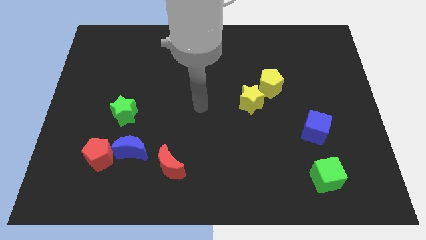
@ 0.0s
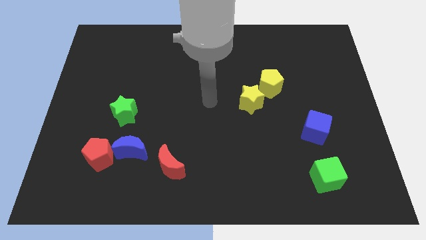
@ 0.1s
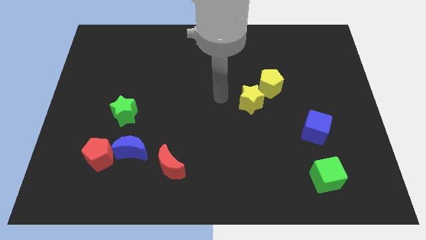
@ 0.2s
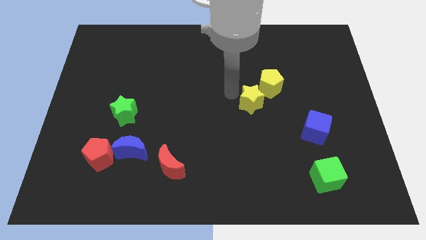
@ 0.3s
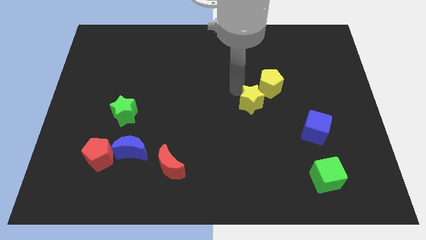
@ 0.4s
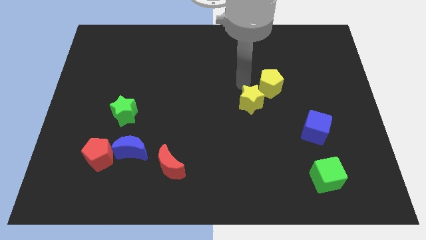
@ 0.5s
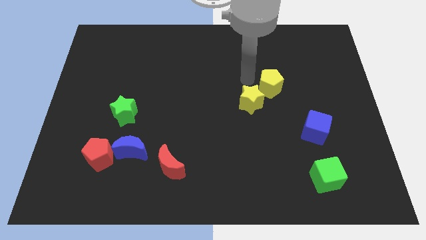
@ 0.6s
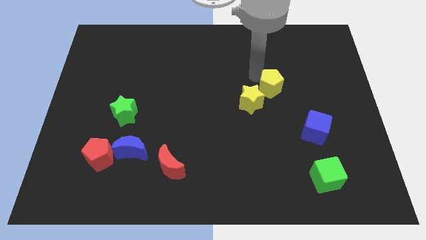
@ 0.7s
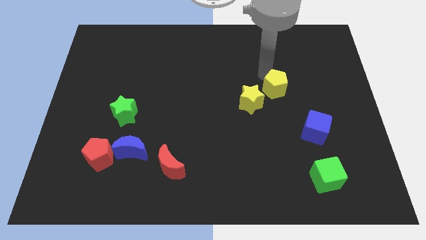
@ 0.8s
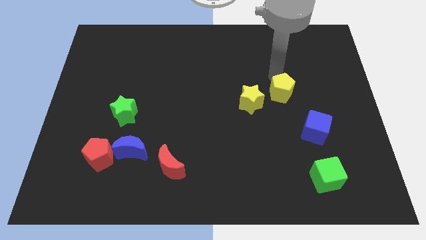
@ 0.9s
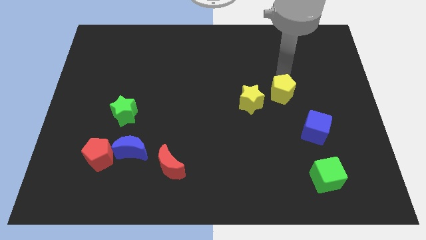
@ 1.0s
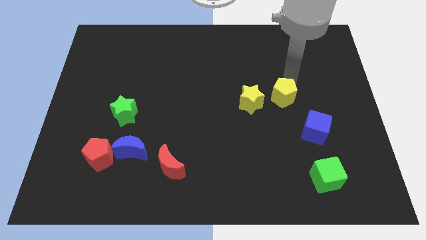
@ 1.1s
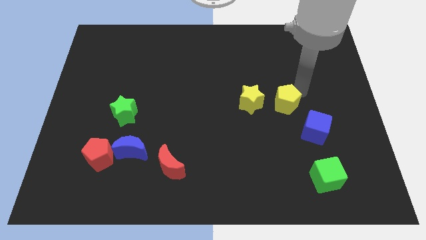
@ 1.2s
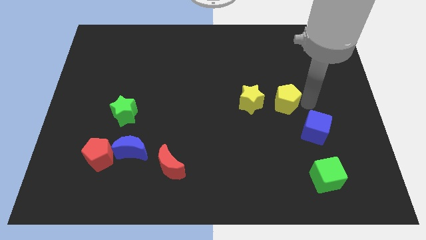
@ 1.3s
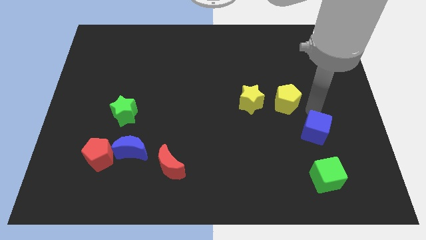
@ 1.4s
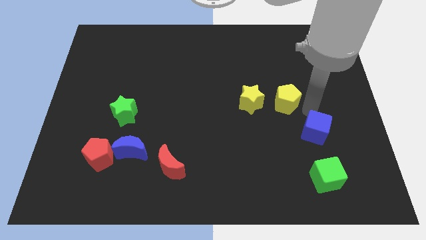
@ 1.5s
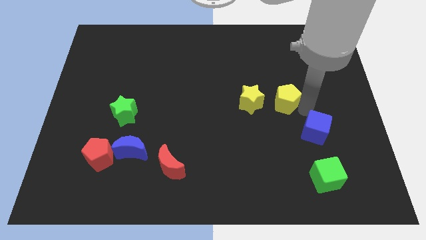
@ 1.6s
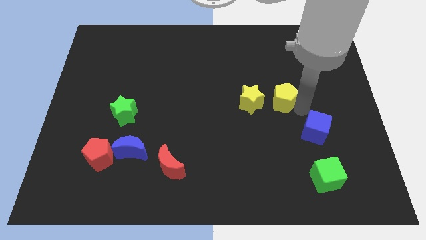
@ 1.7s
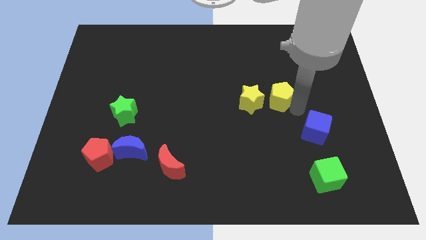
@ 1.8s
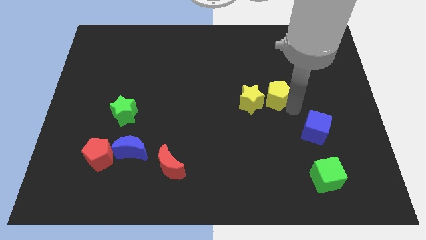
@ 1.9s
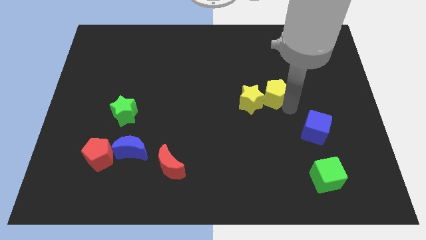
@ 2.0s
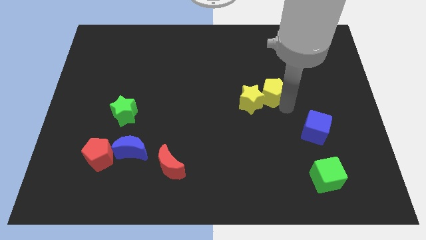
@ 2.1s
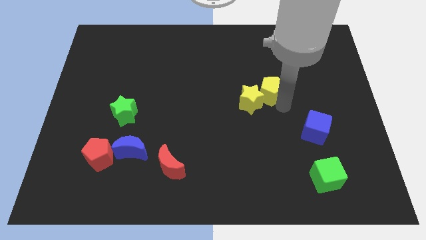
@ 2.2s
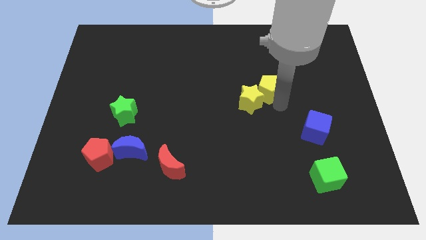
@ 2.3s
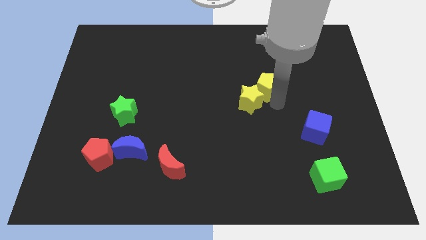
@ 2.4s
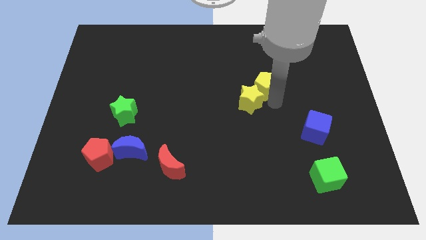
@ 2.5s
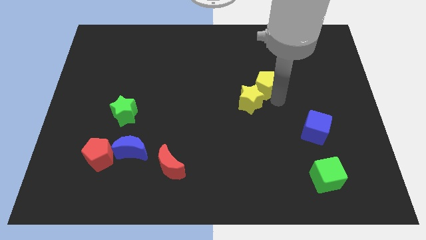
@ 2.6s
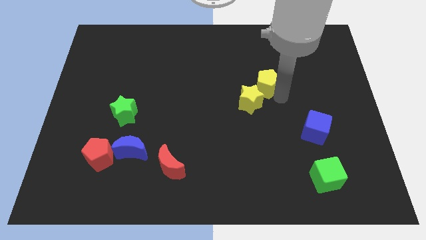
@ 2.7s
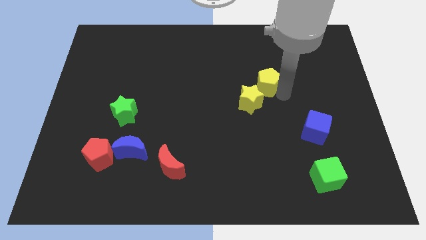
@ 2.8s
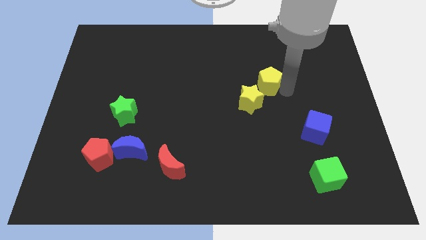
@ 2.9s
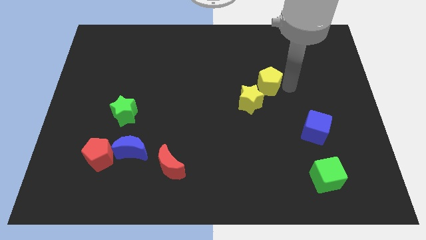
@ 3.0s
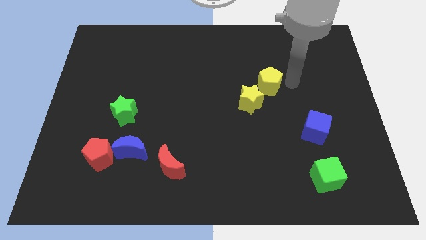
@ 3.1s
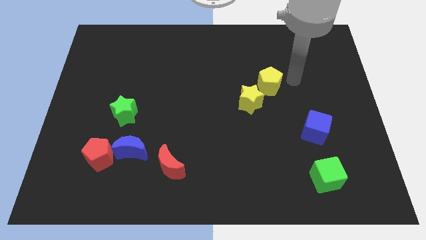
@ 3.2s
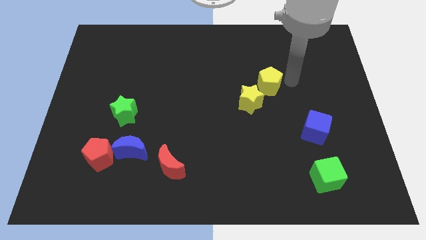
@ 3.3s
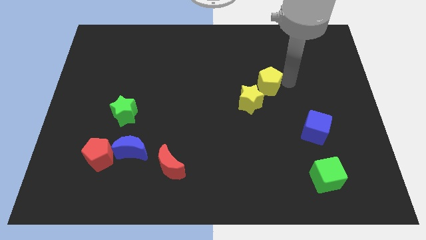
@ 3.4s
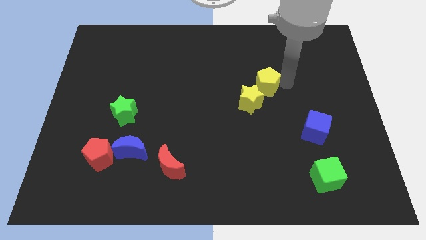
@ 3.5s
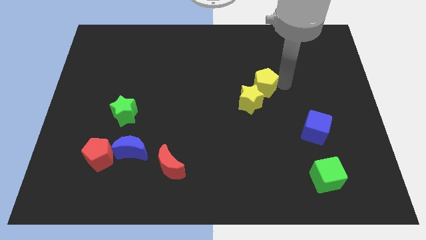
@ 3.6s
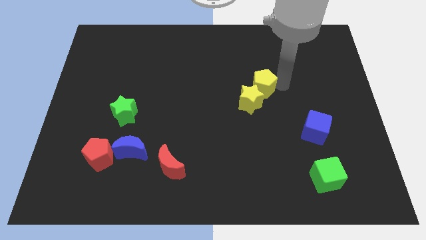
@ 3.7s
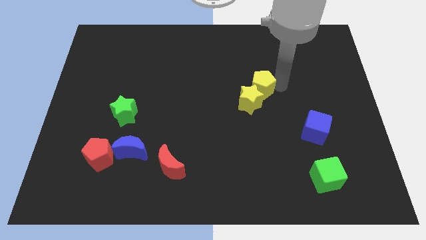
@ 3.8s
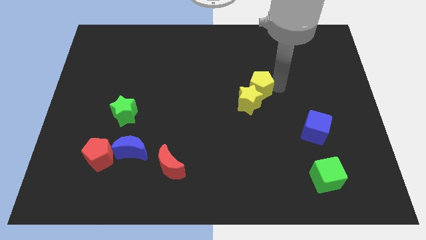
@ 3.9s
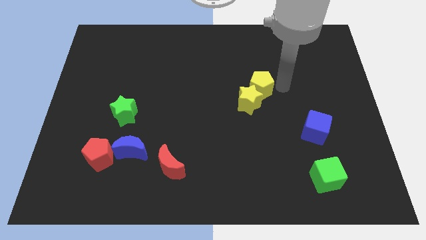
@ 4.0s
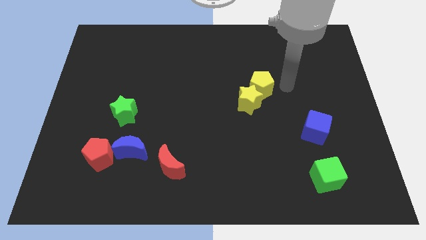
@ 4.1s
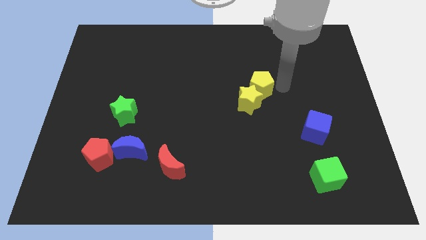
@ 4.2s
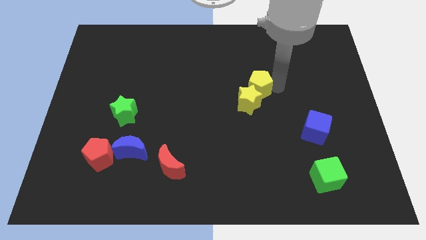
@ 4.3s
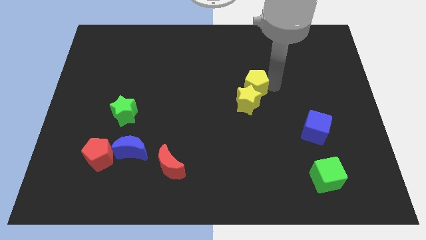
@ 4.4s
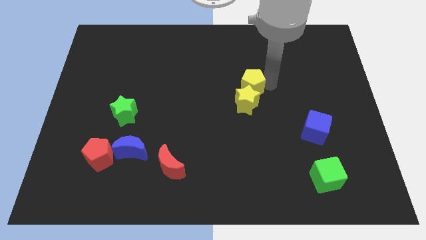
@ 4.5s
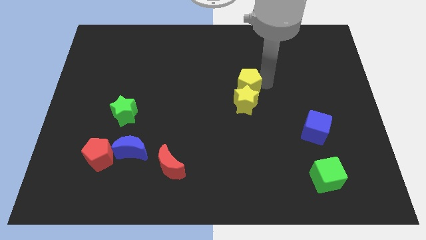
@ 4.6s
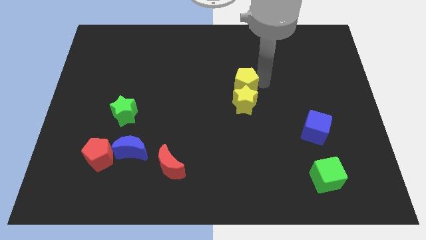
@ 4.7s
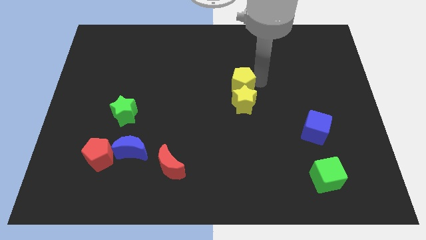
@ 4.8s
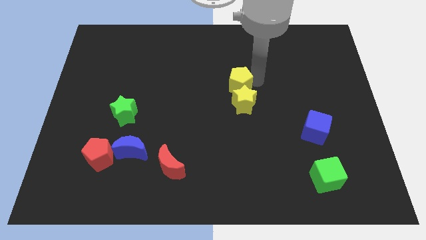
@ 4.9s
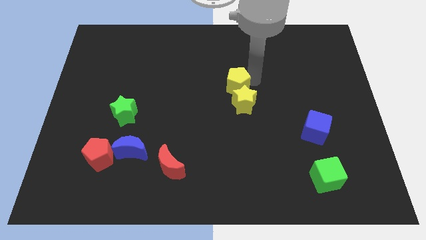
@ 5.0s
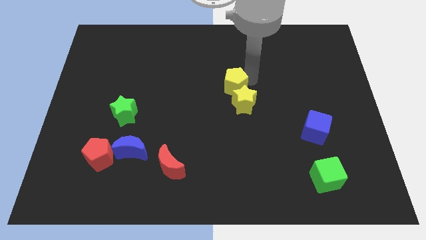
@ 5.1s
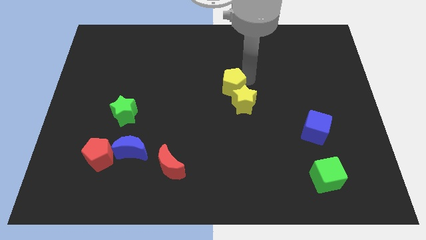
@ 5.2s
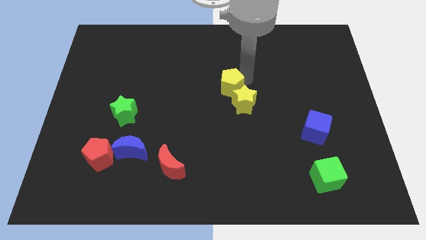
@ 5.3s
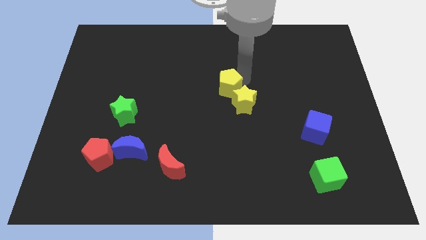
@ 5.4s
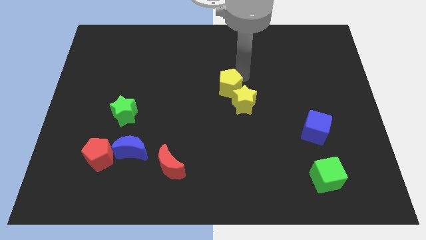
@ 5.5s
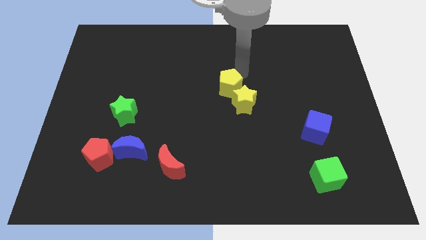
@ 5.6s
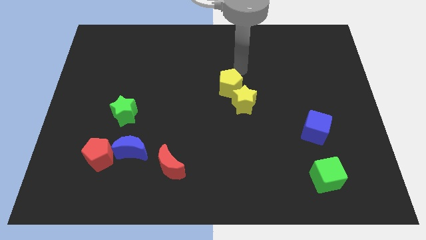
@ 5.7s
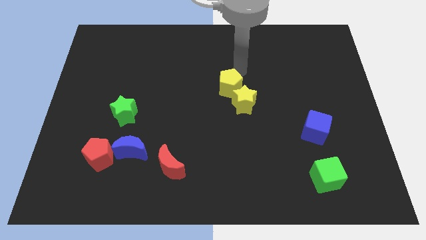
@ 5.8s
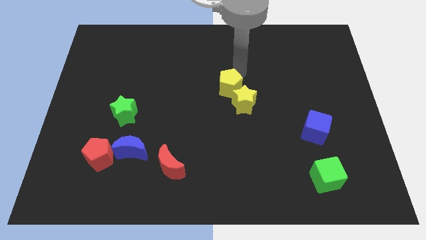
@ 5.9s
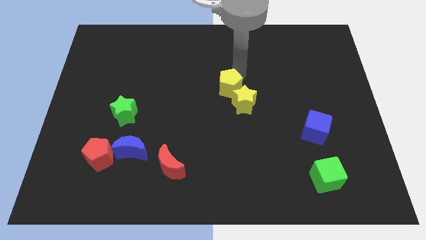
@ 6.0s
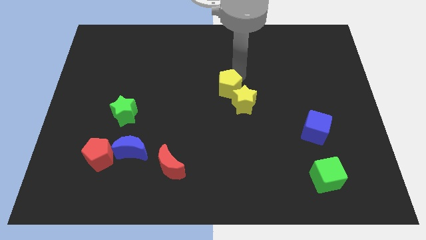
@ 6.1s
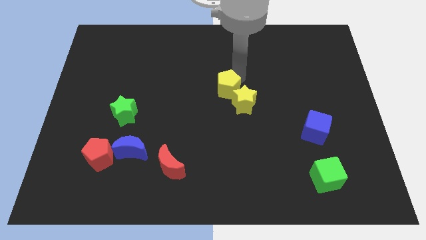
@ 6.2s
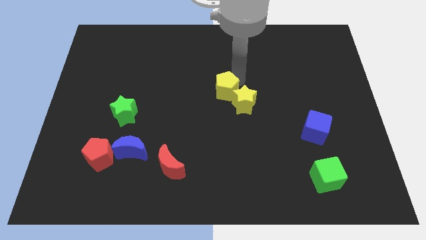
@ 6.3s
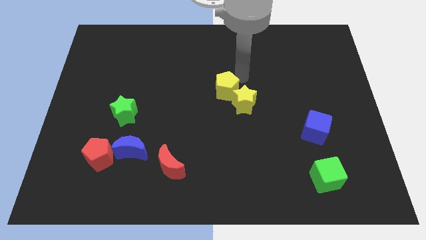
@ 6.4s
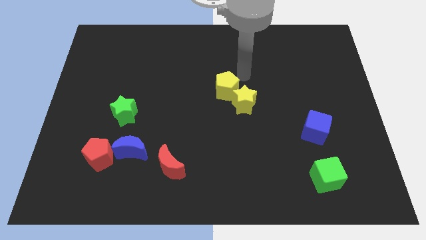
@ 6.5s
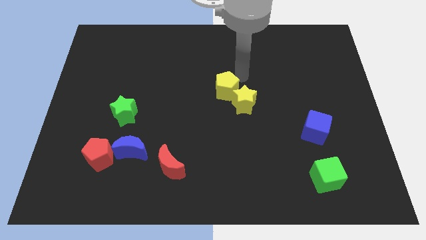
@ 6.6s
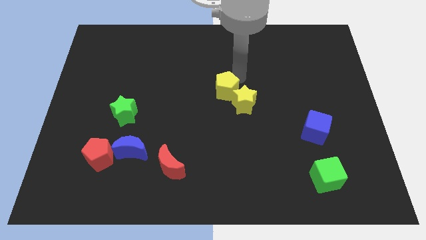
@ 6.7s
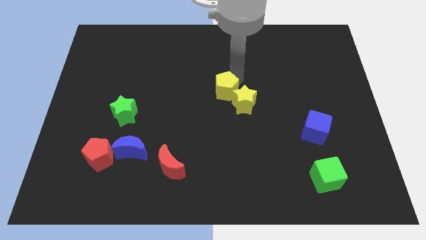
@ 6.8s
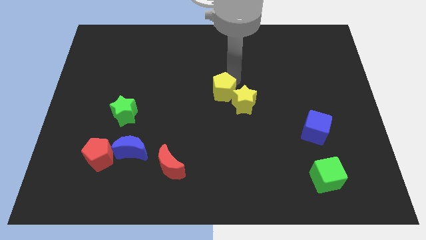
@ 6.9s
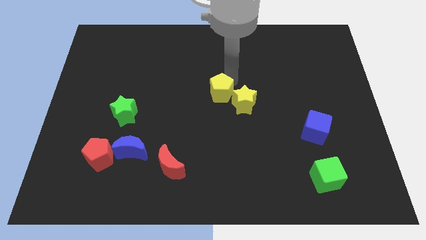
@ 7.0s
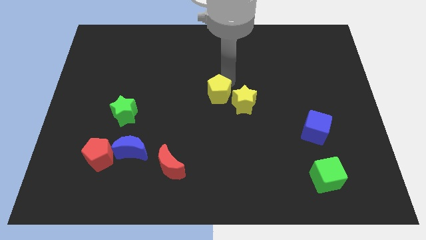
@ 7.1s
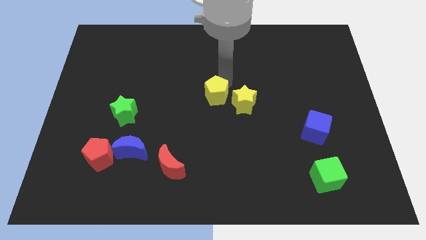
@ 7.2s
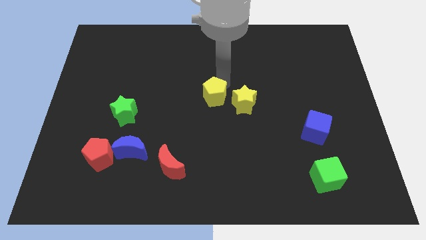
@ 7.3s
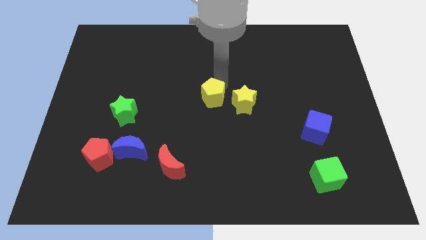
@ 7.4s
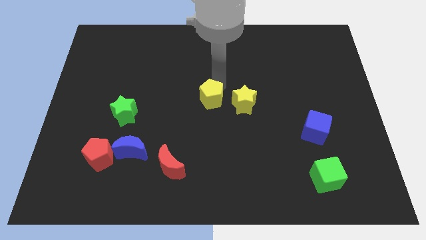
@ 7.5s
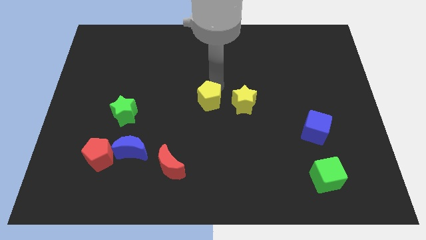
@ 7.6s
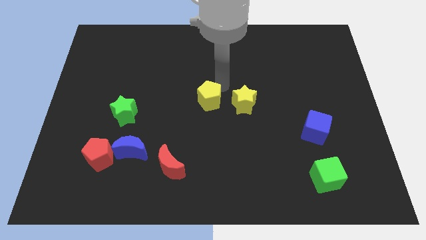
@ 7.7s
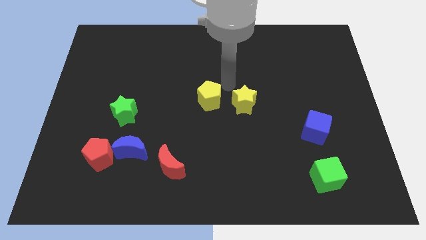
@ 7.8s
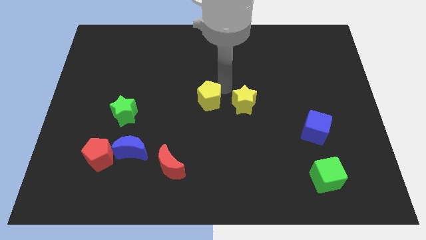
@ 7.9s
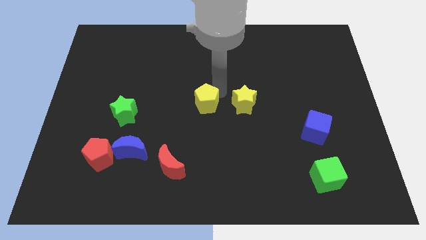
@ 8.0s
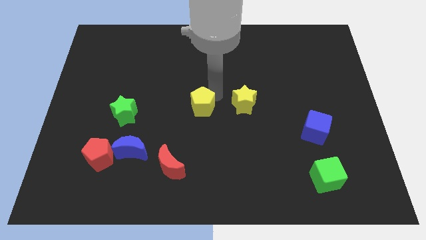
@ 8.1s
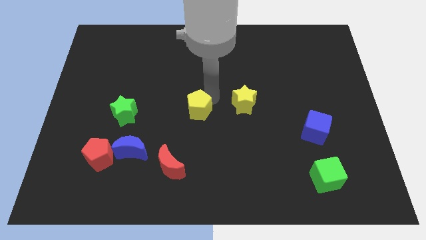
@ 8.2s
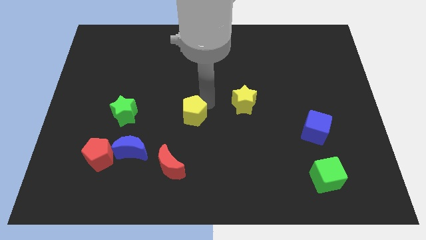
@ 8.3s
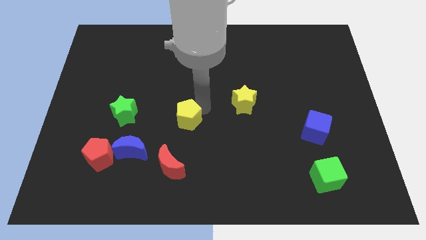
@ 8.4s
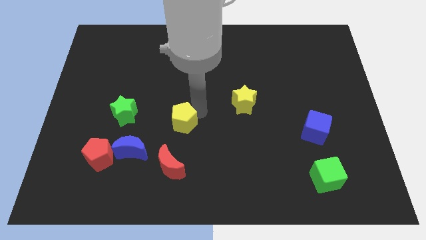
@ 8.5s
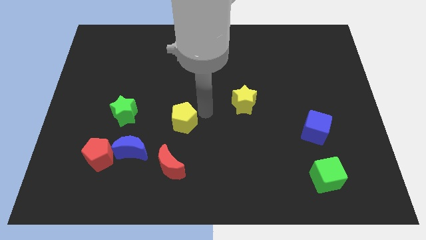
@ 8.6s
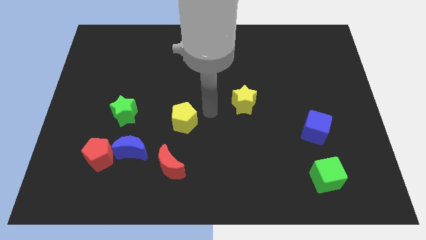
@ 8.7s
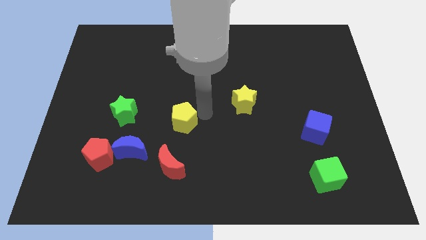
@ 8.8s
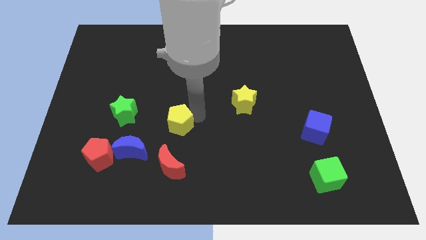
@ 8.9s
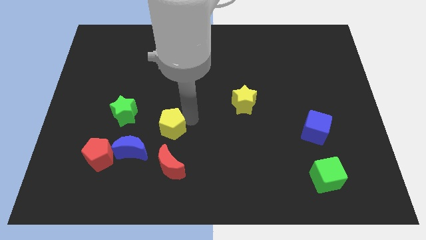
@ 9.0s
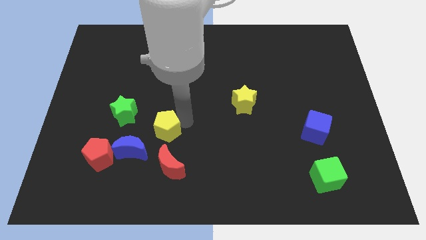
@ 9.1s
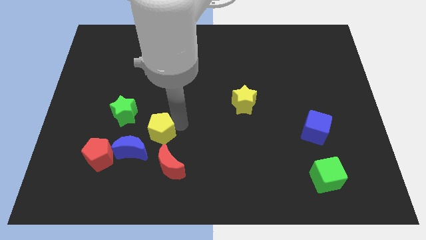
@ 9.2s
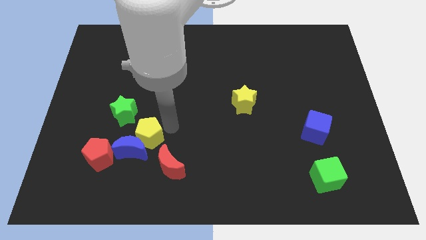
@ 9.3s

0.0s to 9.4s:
push the yellow pentagon towards the blue moon
